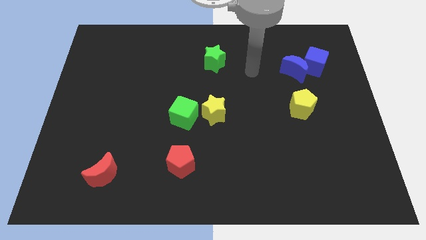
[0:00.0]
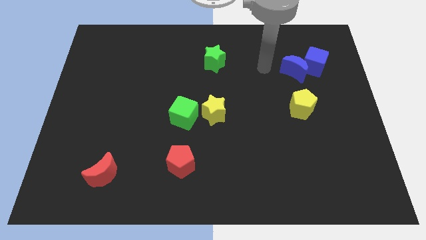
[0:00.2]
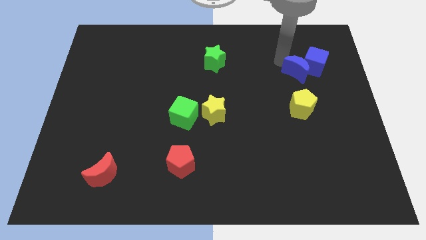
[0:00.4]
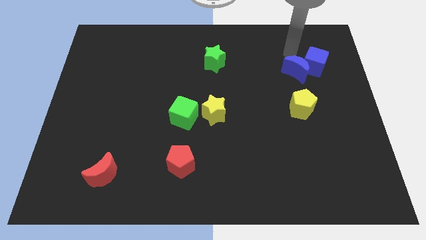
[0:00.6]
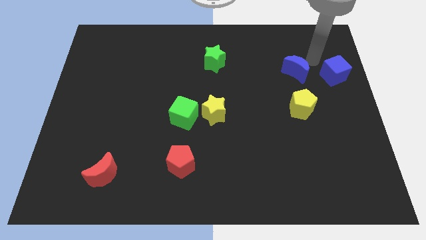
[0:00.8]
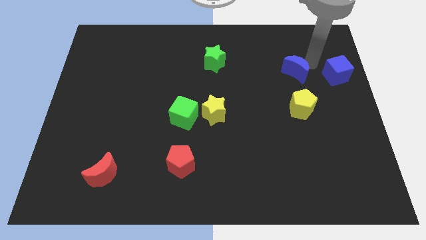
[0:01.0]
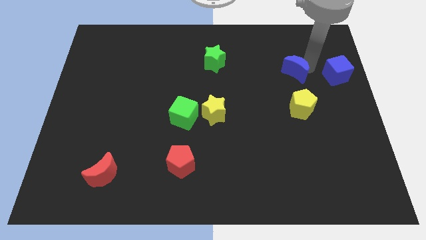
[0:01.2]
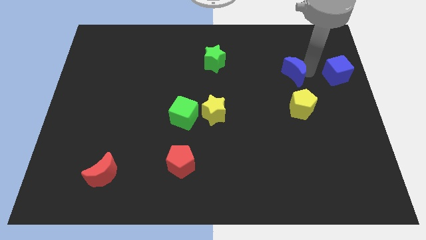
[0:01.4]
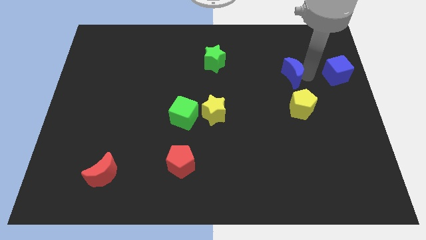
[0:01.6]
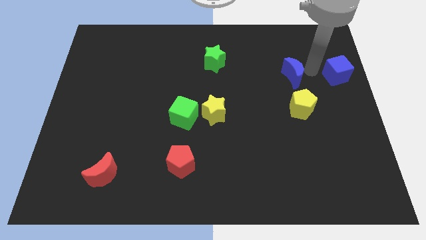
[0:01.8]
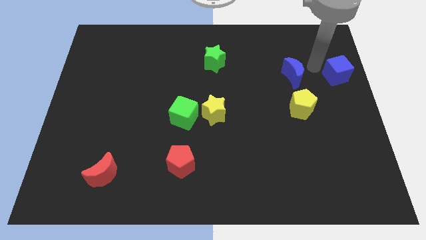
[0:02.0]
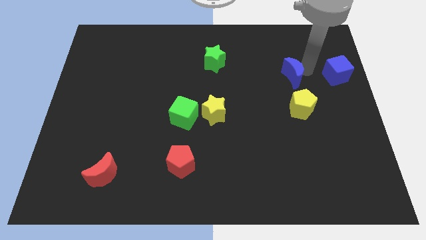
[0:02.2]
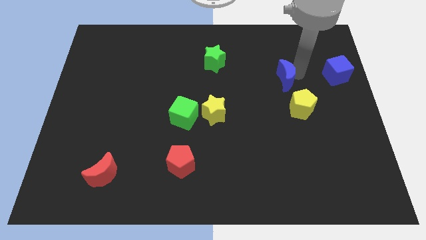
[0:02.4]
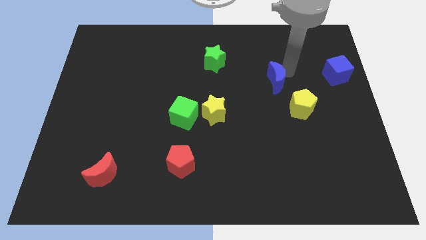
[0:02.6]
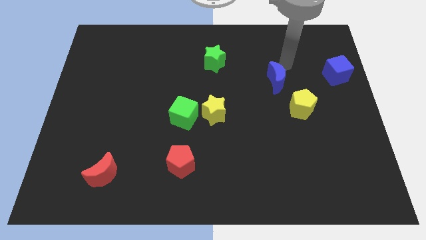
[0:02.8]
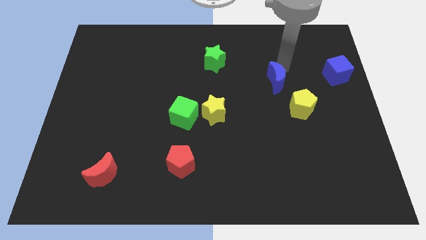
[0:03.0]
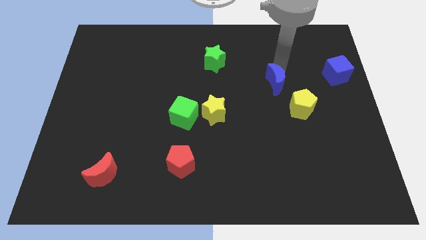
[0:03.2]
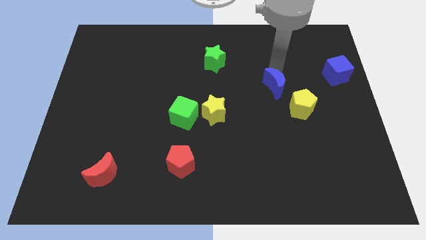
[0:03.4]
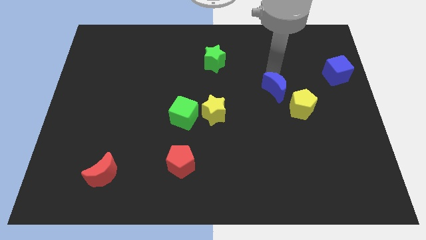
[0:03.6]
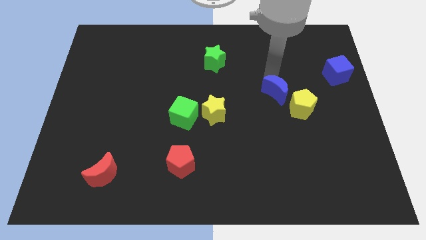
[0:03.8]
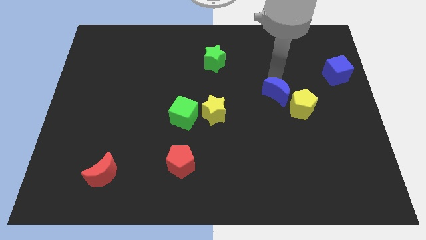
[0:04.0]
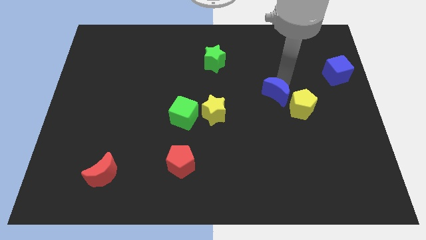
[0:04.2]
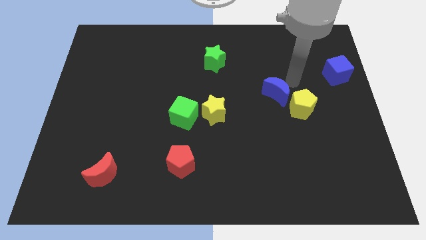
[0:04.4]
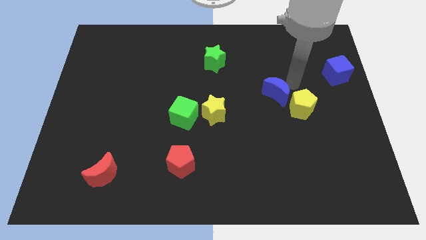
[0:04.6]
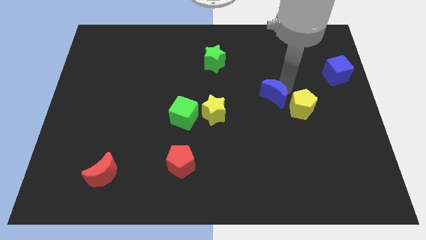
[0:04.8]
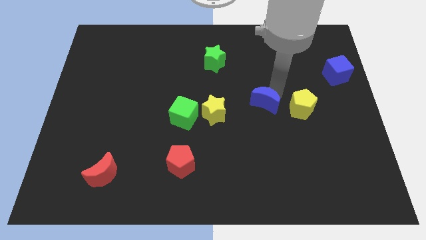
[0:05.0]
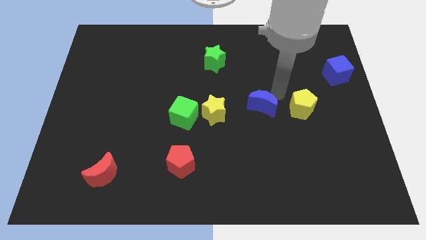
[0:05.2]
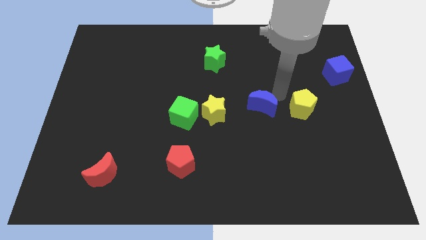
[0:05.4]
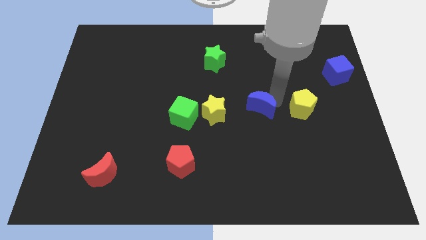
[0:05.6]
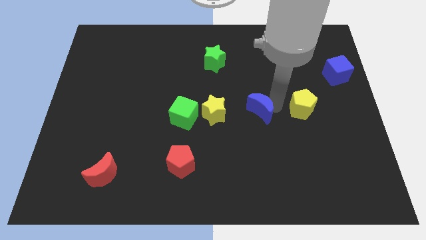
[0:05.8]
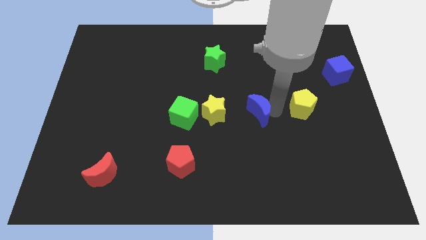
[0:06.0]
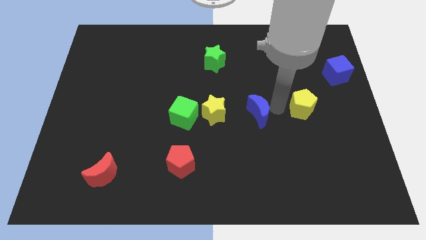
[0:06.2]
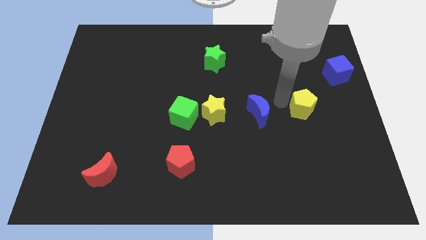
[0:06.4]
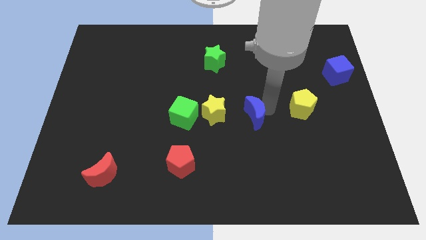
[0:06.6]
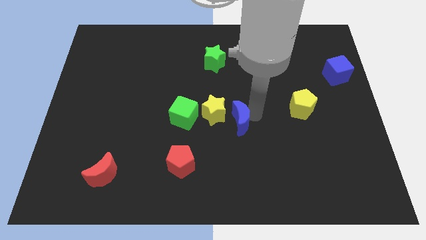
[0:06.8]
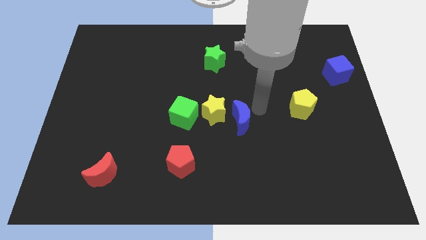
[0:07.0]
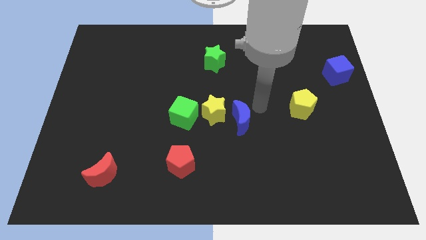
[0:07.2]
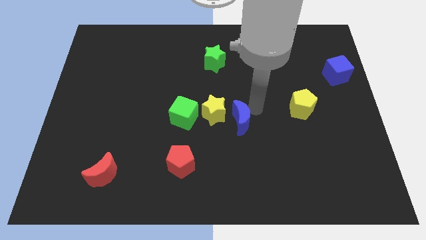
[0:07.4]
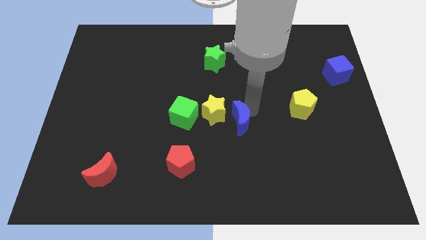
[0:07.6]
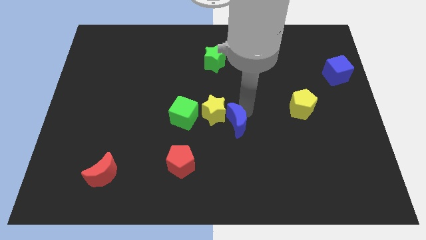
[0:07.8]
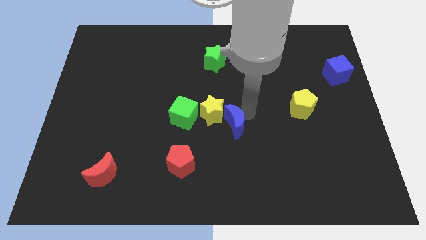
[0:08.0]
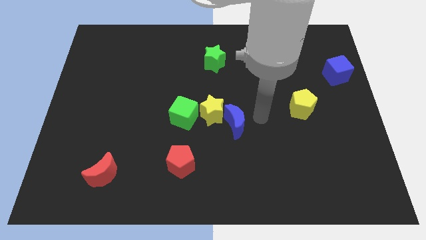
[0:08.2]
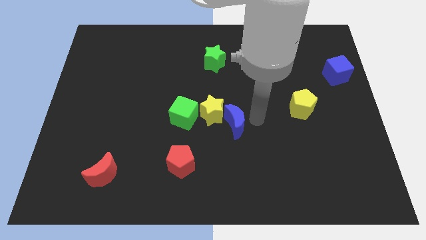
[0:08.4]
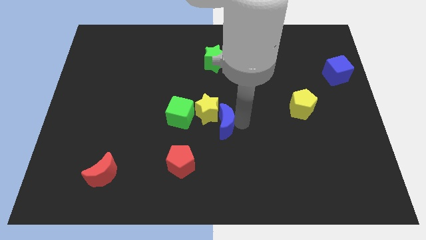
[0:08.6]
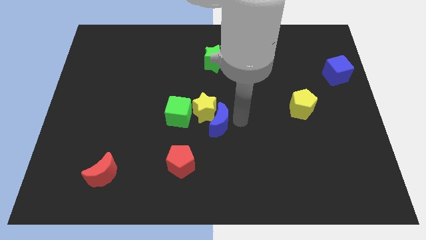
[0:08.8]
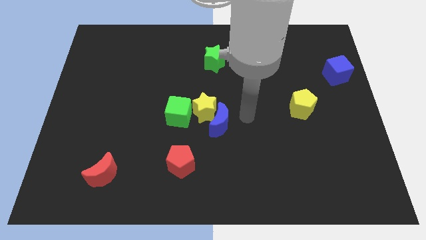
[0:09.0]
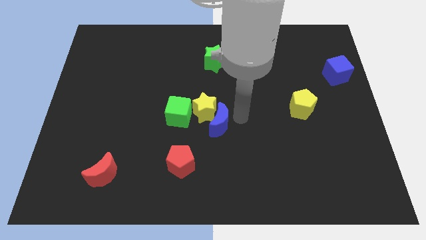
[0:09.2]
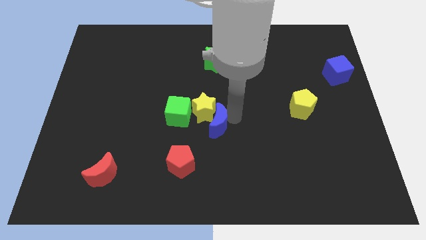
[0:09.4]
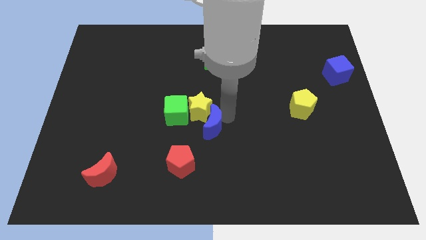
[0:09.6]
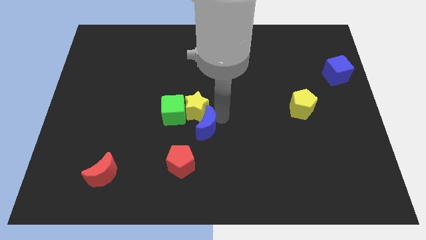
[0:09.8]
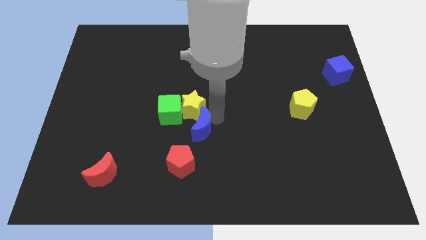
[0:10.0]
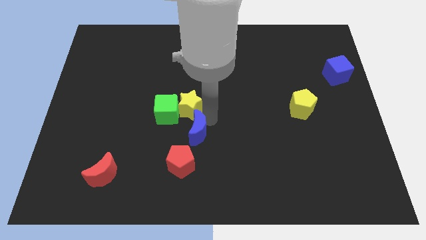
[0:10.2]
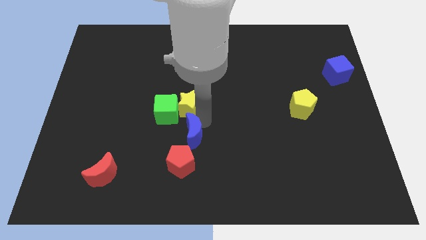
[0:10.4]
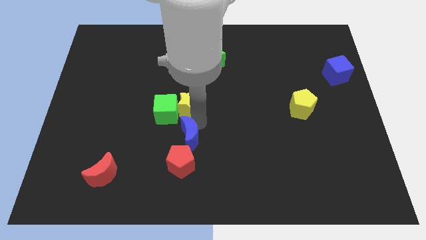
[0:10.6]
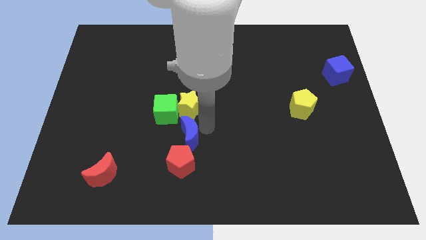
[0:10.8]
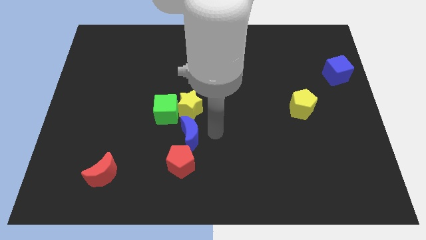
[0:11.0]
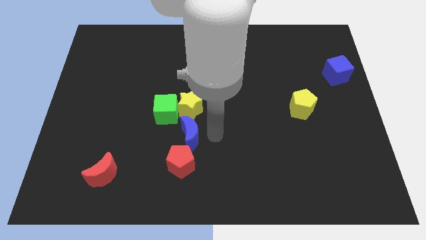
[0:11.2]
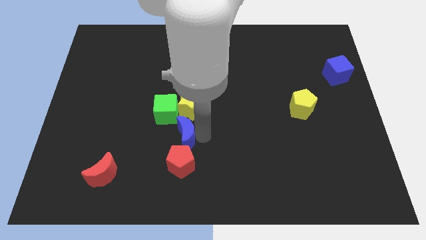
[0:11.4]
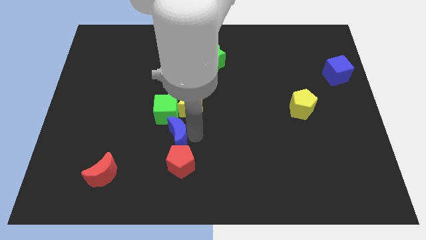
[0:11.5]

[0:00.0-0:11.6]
slide the blue moon to the top left of the red pentagon
